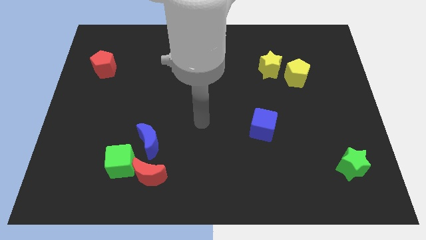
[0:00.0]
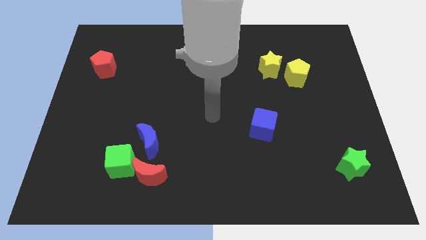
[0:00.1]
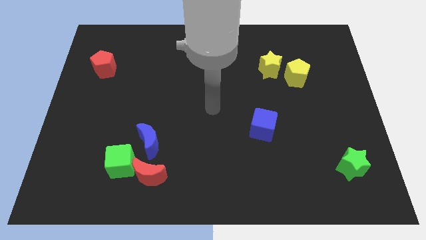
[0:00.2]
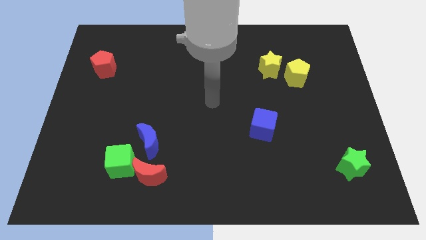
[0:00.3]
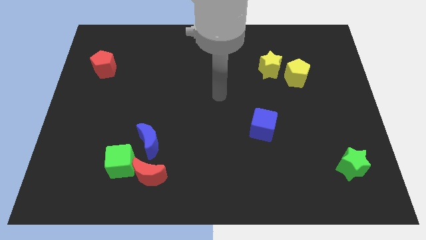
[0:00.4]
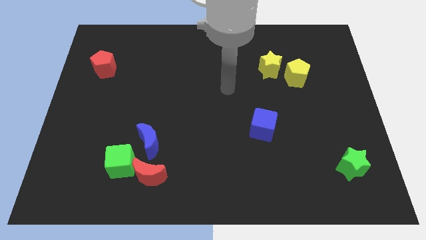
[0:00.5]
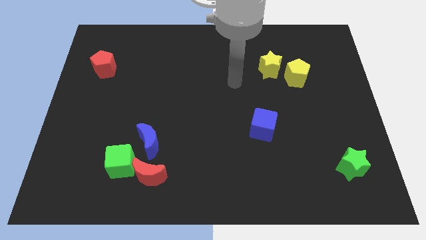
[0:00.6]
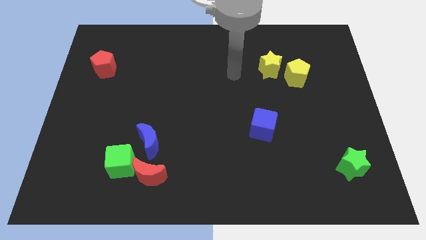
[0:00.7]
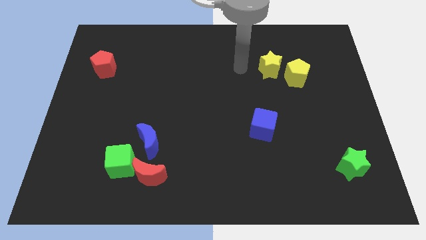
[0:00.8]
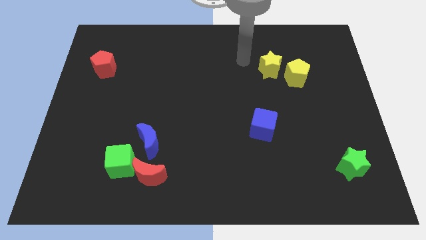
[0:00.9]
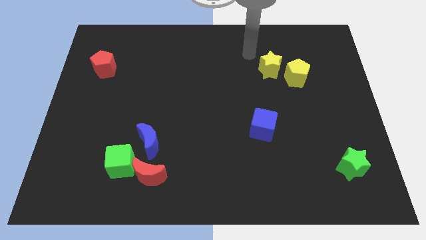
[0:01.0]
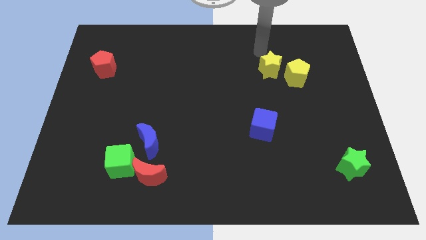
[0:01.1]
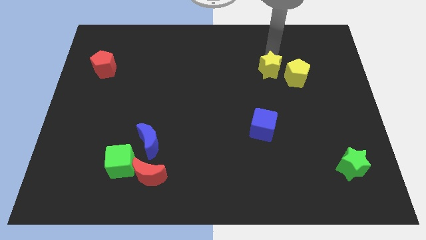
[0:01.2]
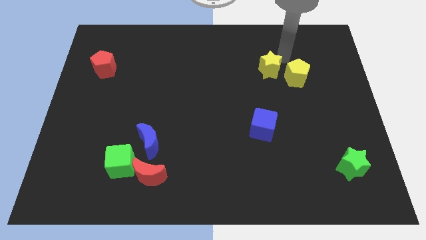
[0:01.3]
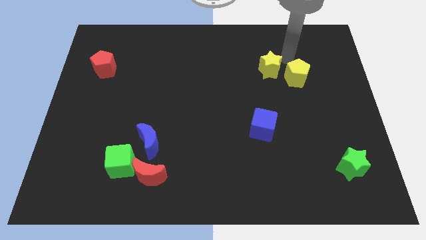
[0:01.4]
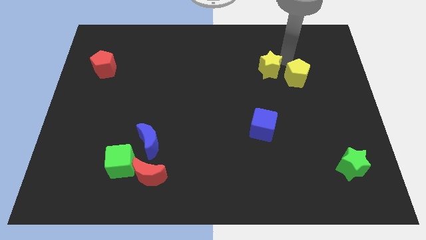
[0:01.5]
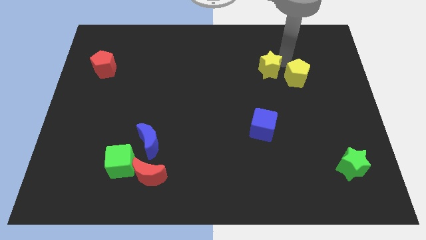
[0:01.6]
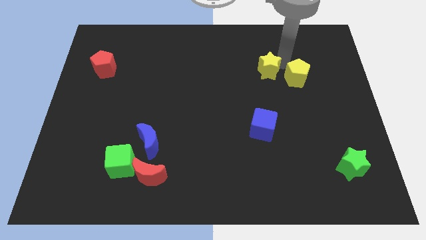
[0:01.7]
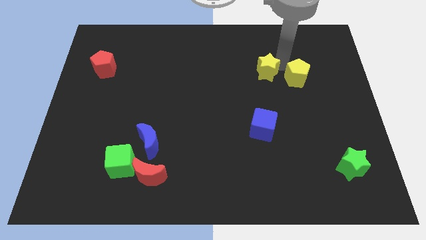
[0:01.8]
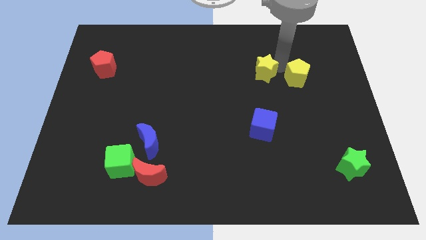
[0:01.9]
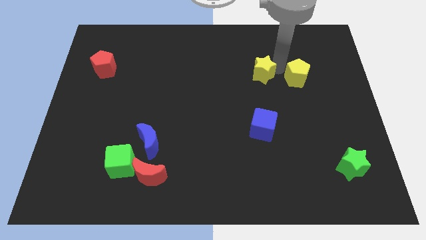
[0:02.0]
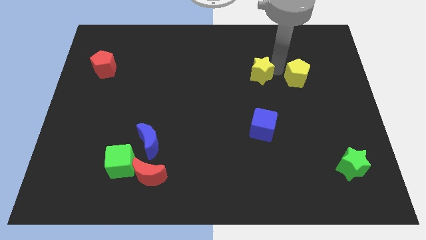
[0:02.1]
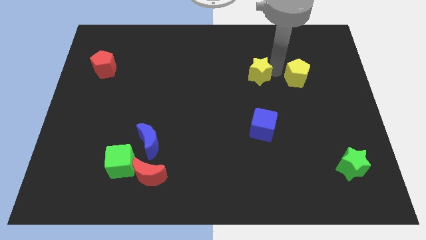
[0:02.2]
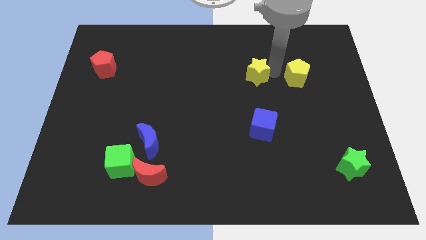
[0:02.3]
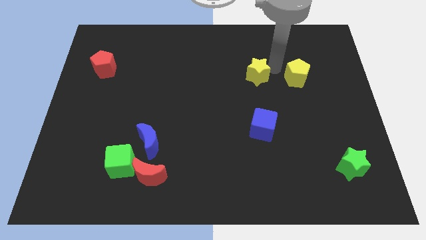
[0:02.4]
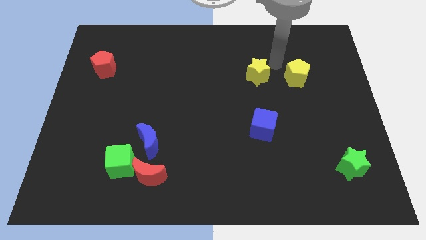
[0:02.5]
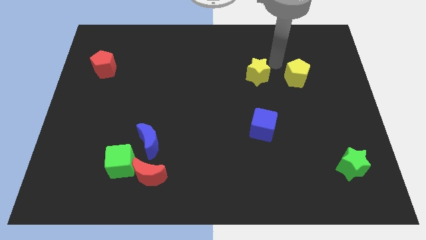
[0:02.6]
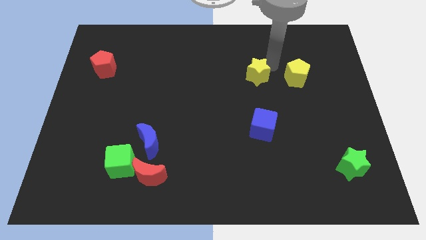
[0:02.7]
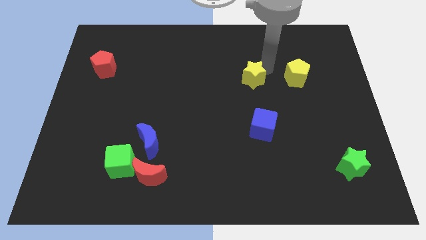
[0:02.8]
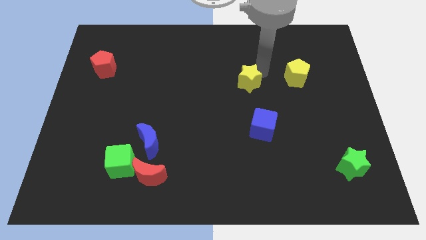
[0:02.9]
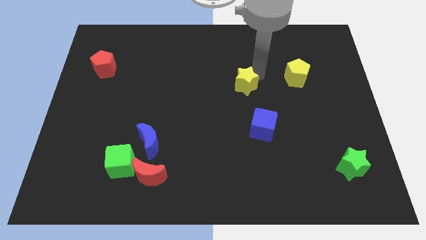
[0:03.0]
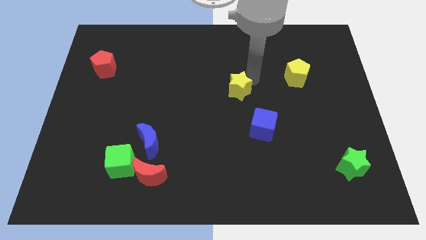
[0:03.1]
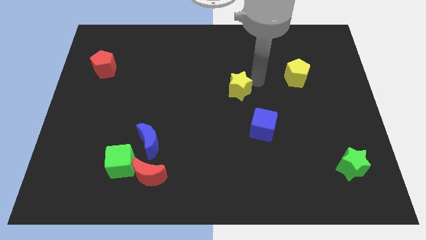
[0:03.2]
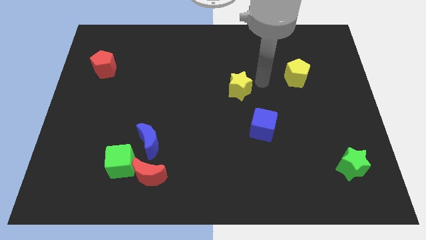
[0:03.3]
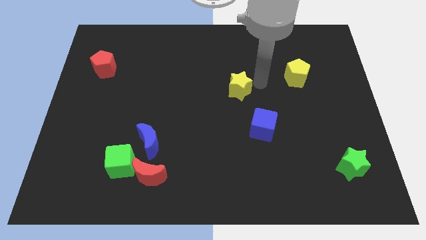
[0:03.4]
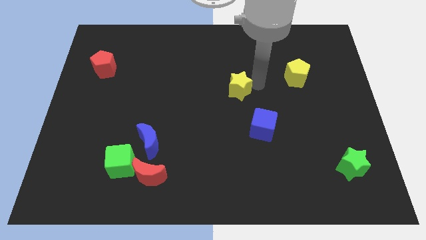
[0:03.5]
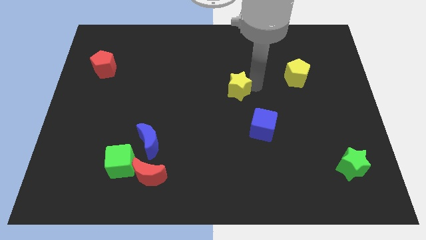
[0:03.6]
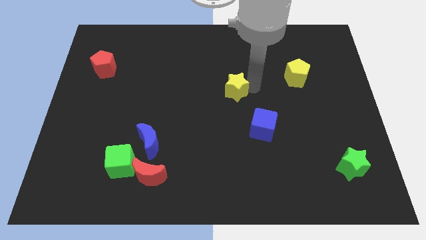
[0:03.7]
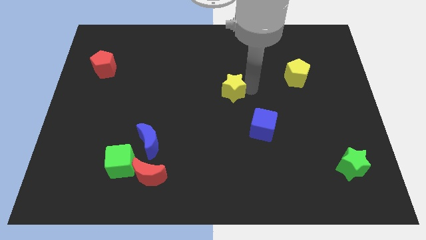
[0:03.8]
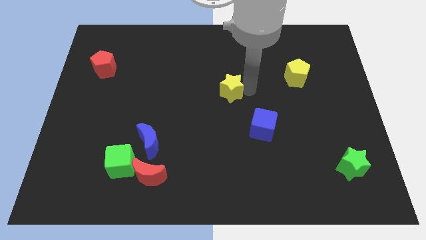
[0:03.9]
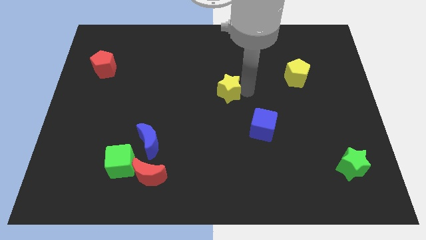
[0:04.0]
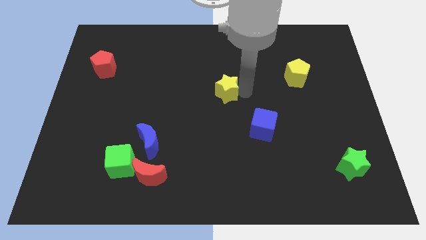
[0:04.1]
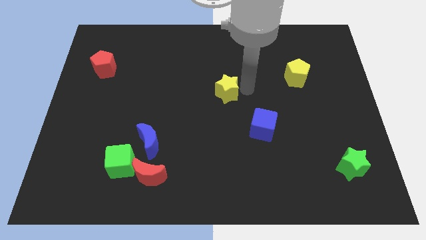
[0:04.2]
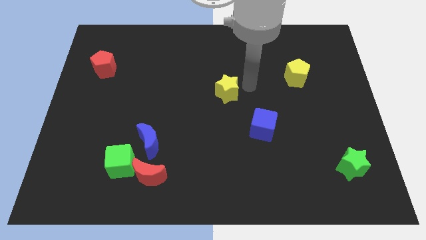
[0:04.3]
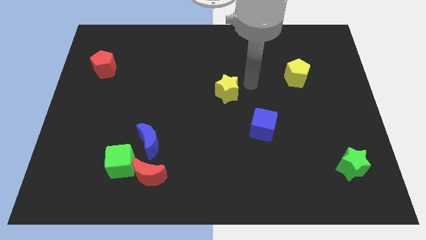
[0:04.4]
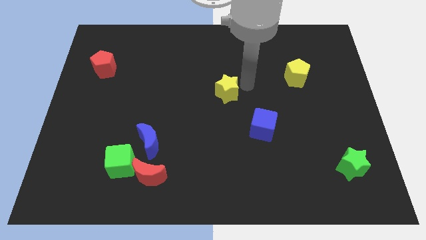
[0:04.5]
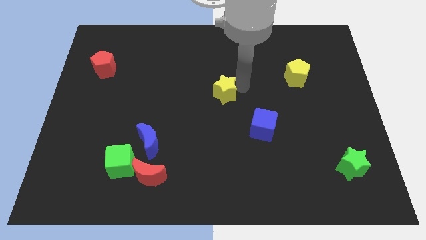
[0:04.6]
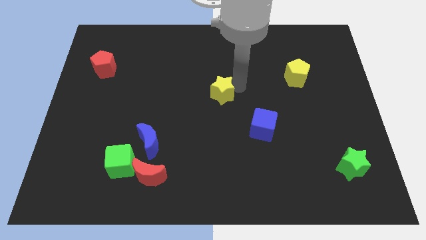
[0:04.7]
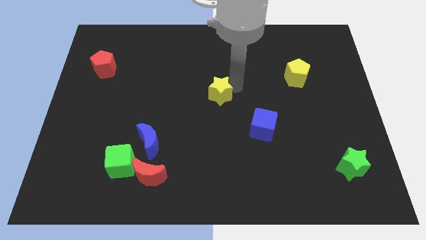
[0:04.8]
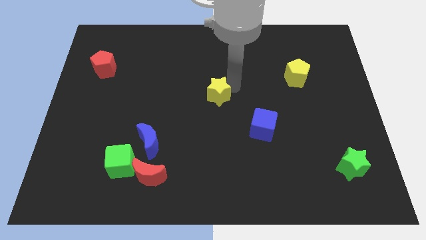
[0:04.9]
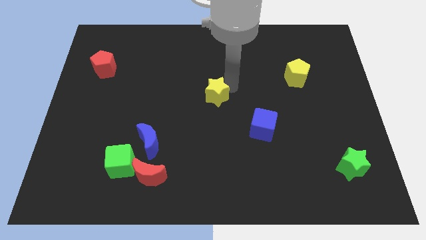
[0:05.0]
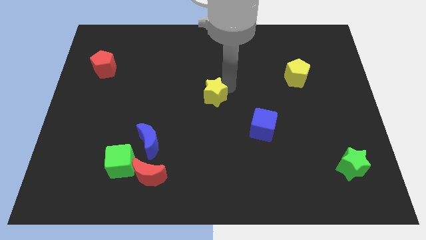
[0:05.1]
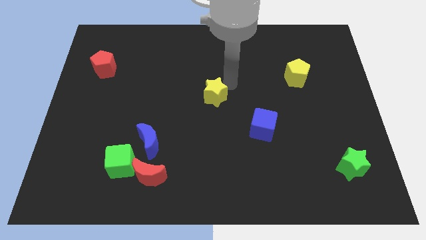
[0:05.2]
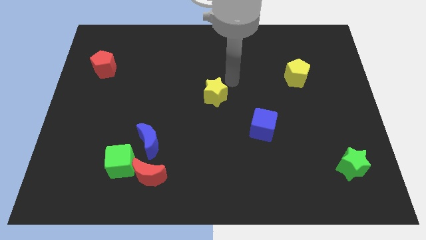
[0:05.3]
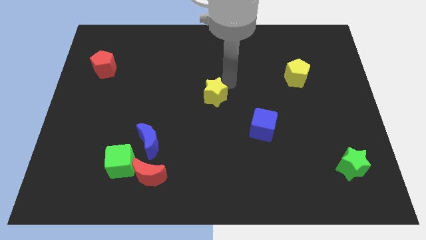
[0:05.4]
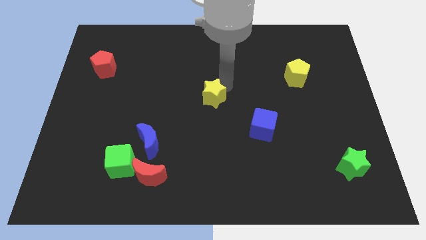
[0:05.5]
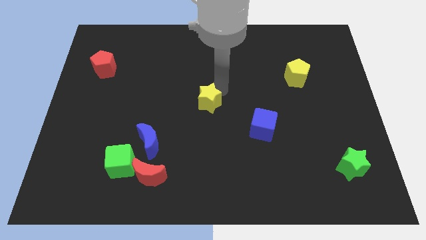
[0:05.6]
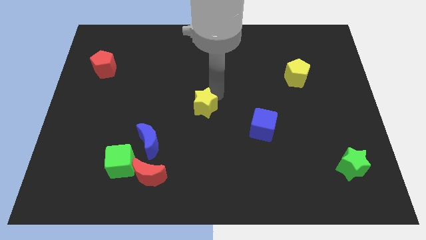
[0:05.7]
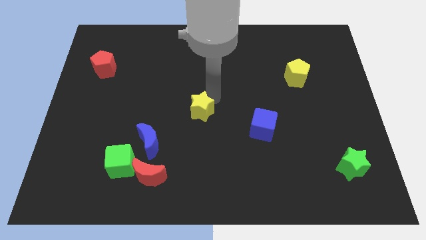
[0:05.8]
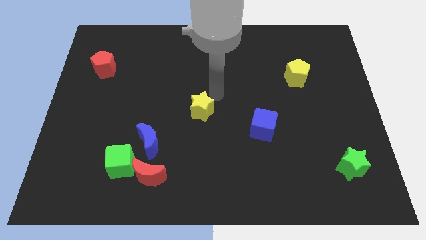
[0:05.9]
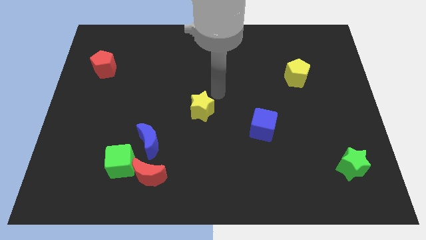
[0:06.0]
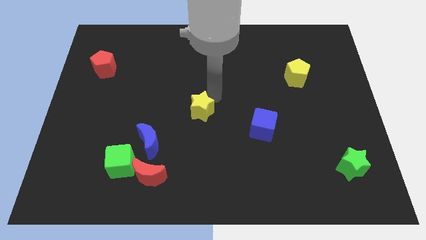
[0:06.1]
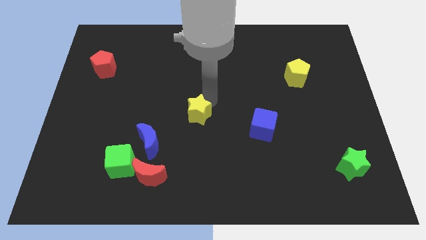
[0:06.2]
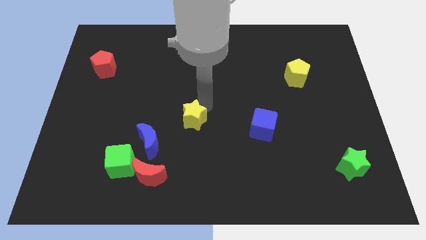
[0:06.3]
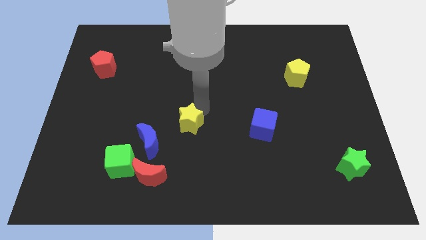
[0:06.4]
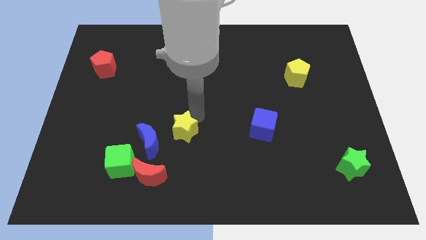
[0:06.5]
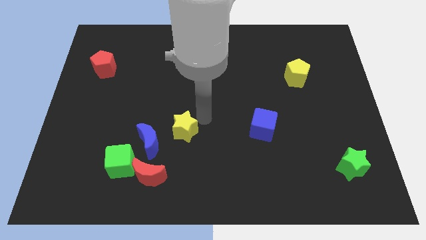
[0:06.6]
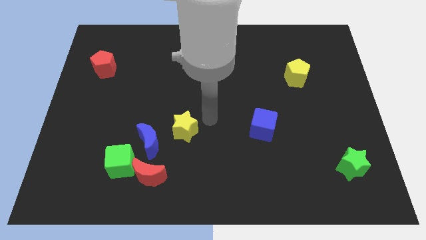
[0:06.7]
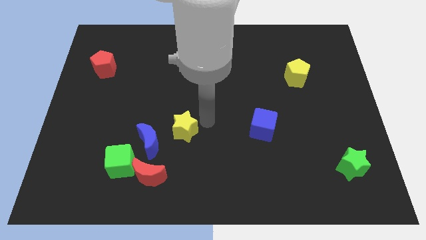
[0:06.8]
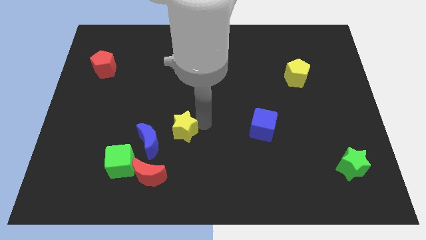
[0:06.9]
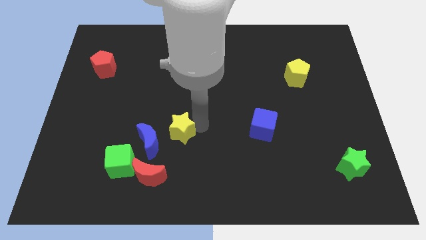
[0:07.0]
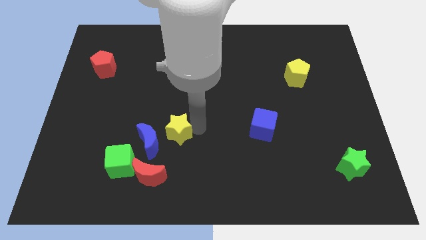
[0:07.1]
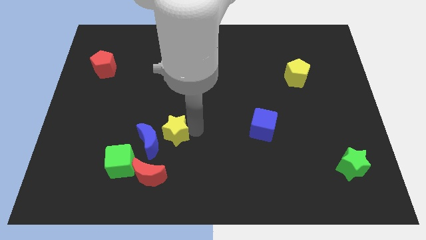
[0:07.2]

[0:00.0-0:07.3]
push the yellow star towards the blue moon
